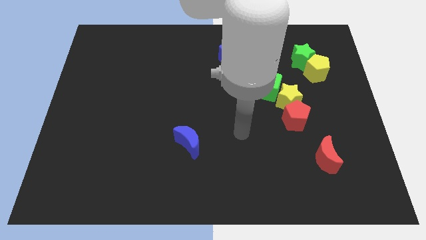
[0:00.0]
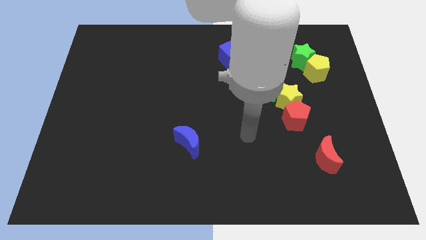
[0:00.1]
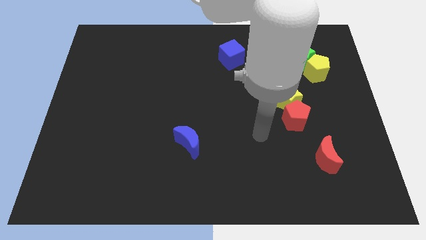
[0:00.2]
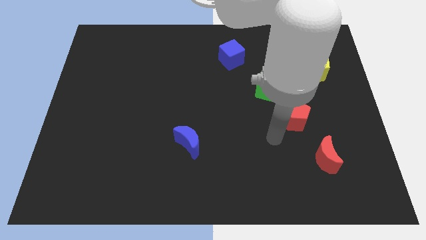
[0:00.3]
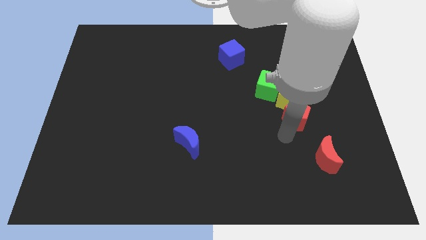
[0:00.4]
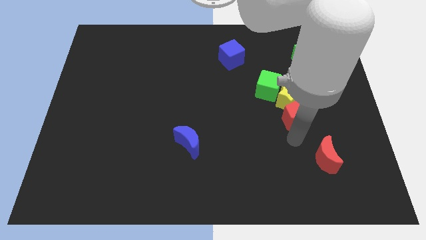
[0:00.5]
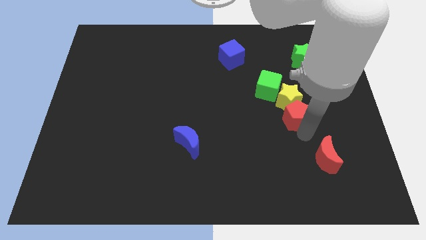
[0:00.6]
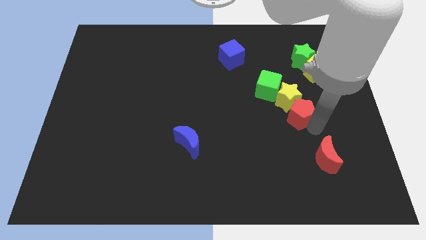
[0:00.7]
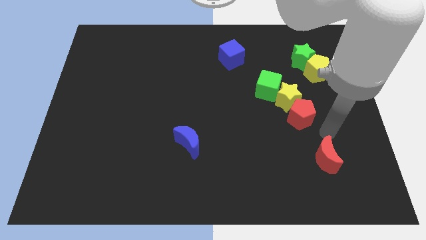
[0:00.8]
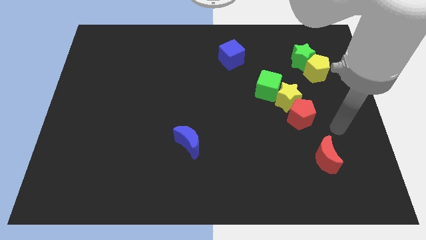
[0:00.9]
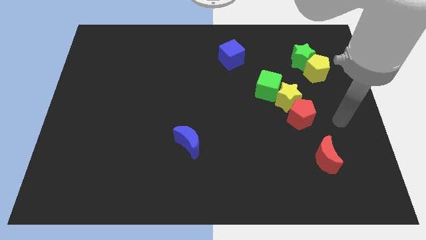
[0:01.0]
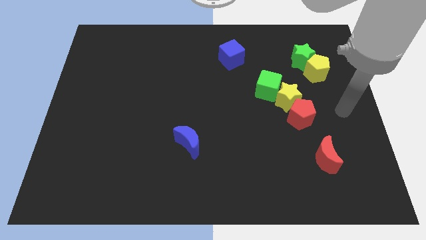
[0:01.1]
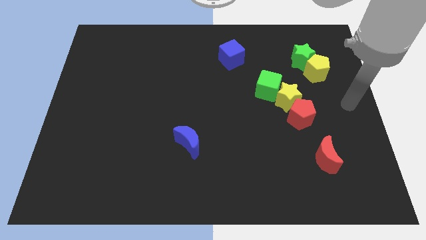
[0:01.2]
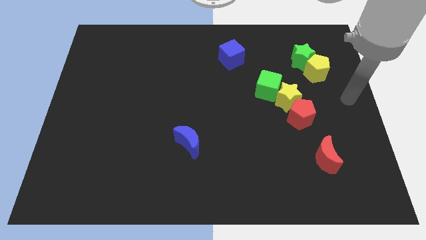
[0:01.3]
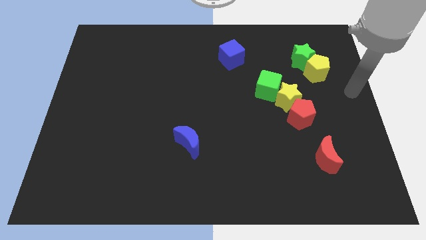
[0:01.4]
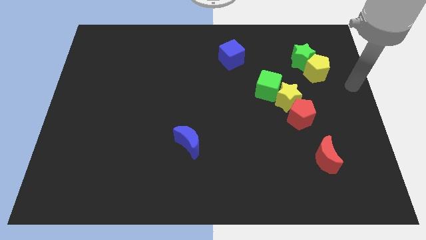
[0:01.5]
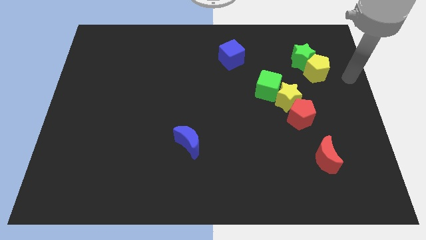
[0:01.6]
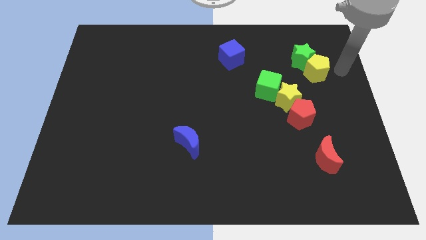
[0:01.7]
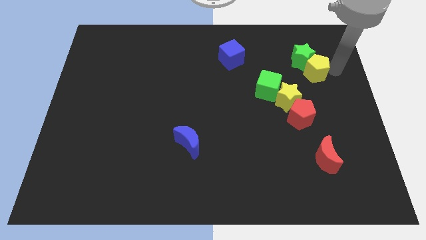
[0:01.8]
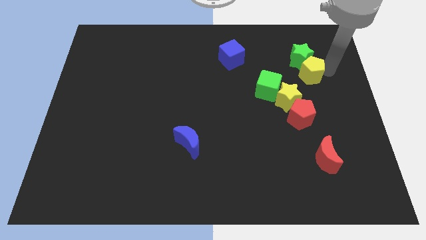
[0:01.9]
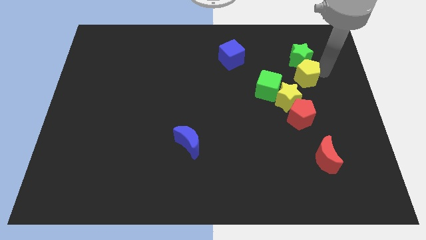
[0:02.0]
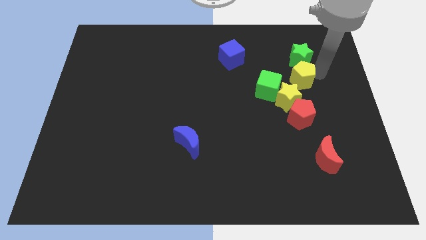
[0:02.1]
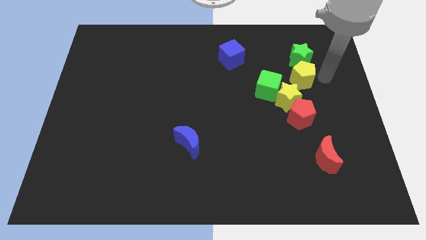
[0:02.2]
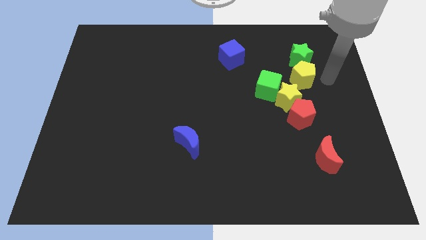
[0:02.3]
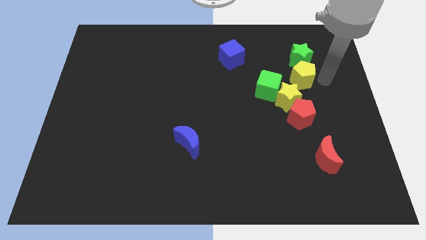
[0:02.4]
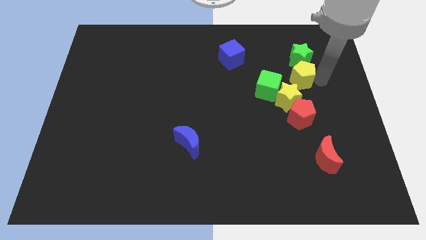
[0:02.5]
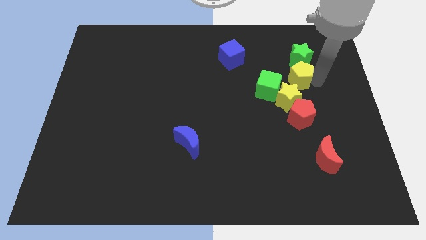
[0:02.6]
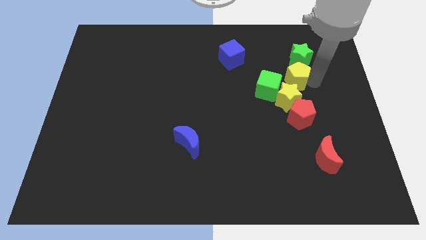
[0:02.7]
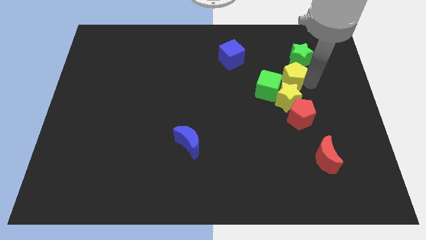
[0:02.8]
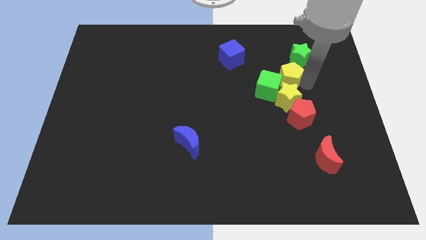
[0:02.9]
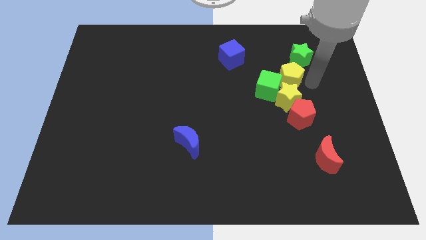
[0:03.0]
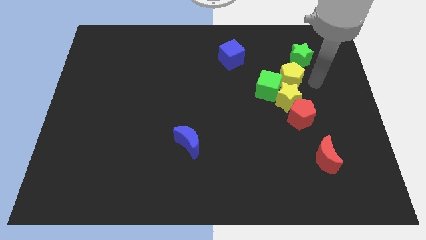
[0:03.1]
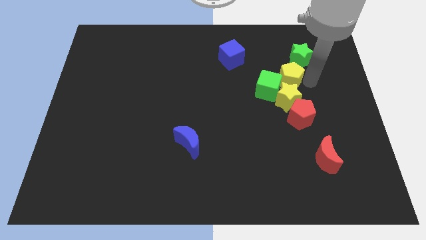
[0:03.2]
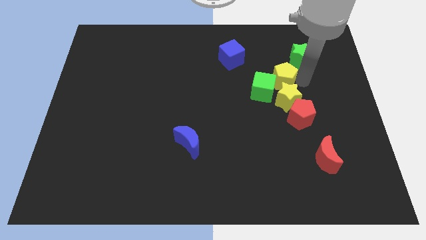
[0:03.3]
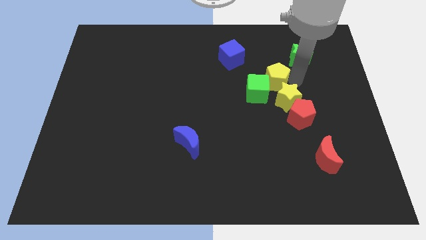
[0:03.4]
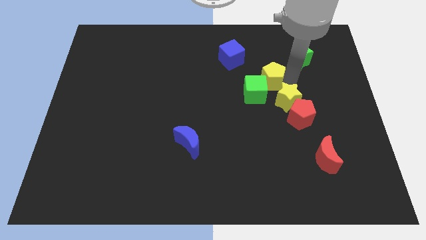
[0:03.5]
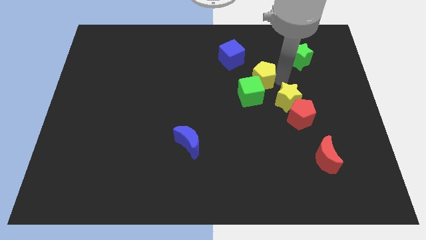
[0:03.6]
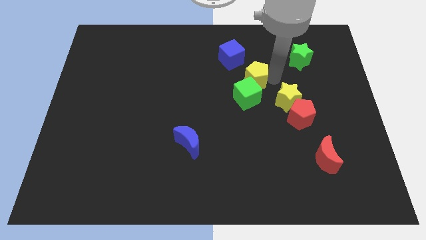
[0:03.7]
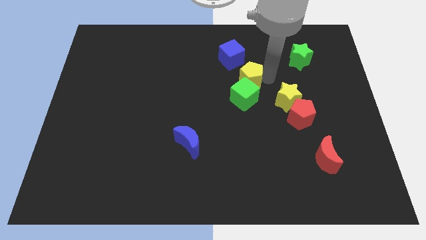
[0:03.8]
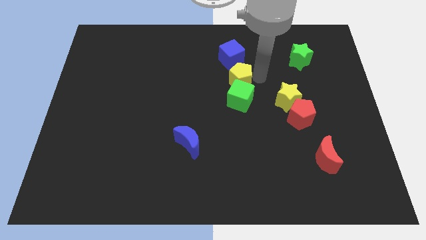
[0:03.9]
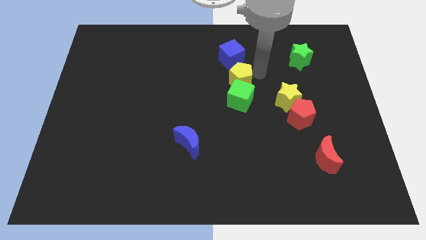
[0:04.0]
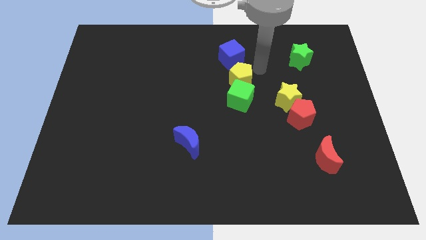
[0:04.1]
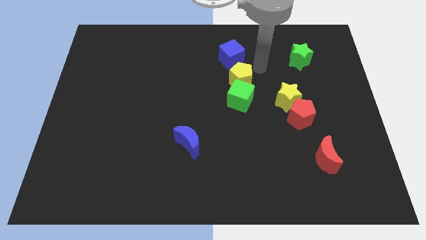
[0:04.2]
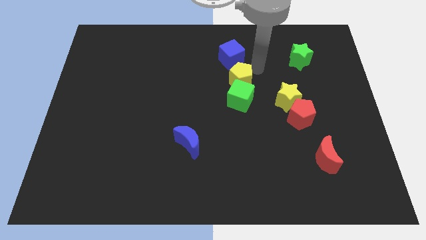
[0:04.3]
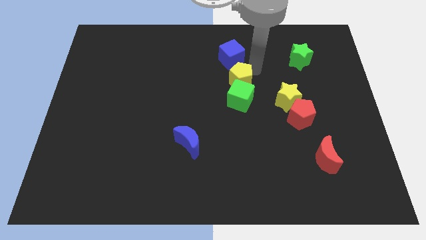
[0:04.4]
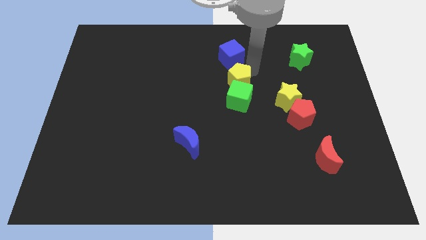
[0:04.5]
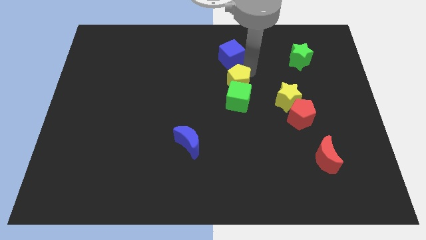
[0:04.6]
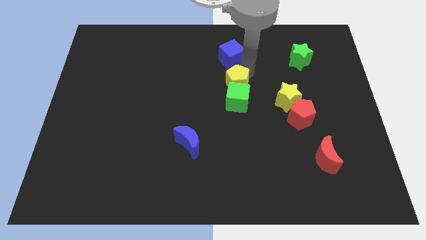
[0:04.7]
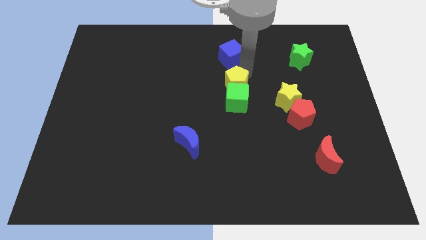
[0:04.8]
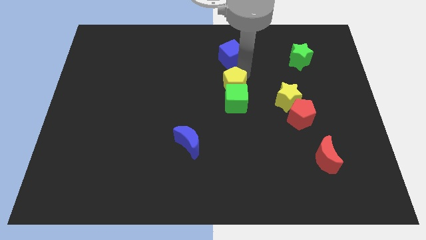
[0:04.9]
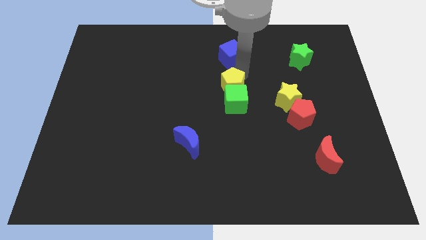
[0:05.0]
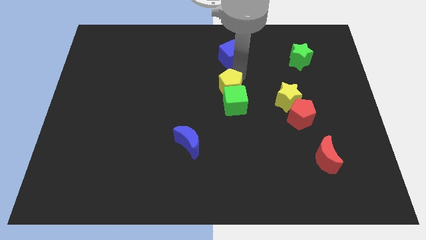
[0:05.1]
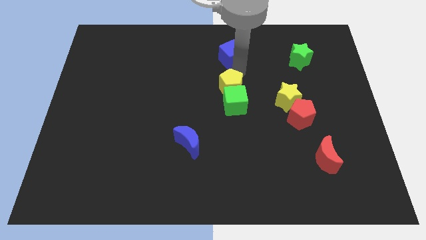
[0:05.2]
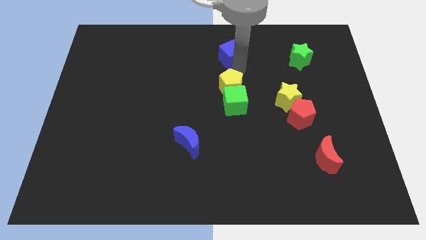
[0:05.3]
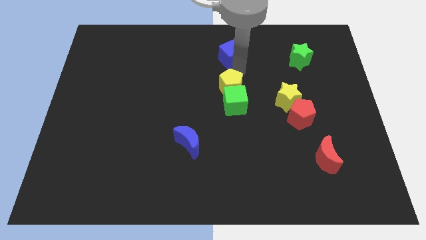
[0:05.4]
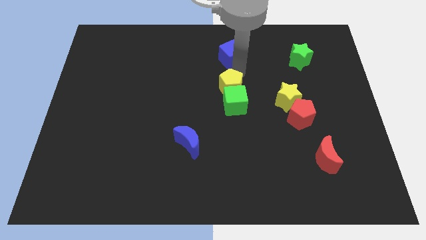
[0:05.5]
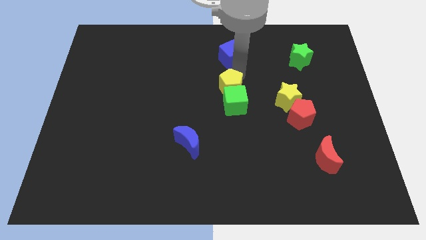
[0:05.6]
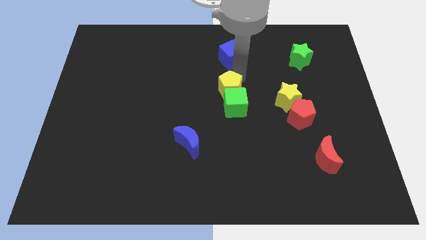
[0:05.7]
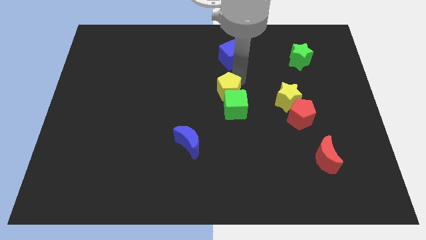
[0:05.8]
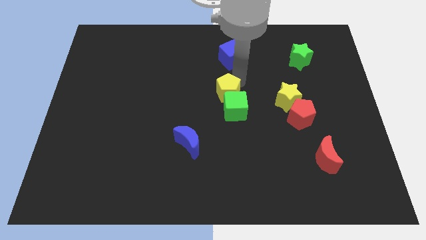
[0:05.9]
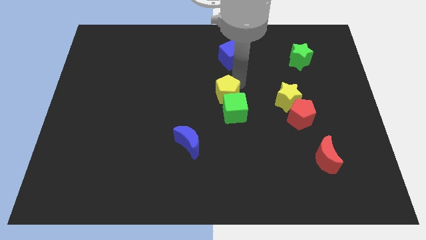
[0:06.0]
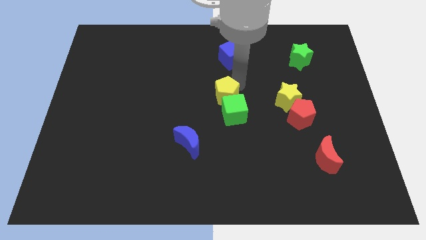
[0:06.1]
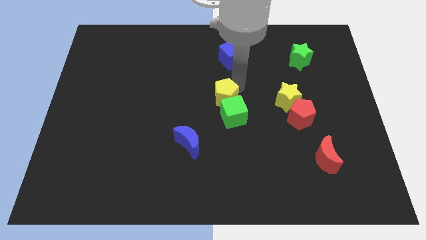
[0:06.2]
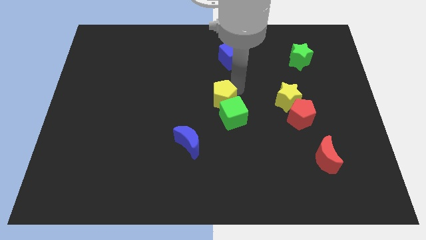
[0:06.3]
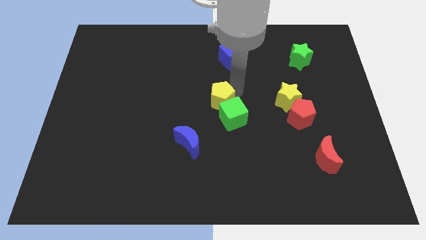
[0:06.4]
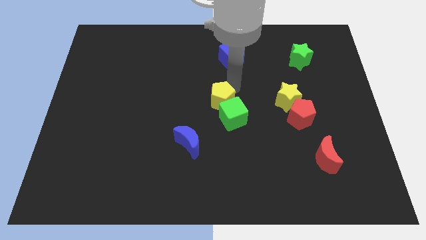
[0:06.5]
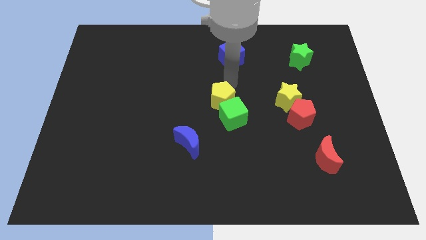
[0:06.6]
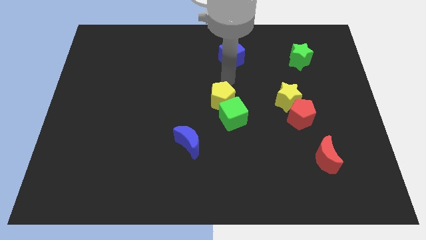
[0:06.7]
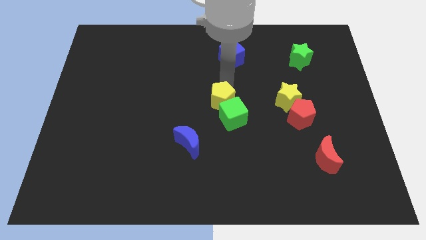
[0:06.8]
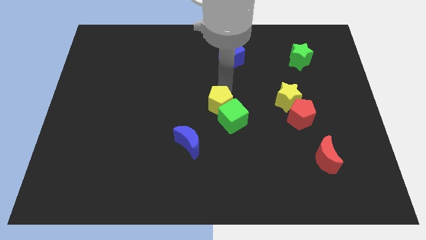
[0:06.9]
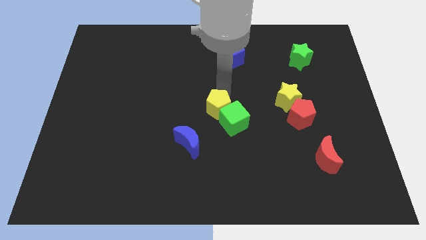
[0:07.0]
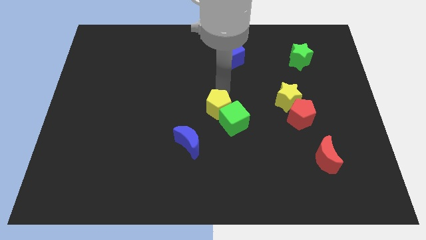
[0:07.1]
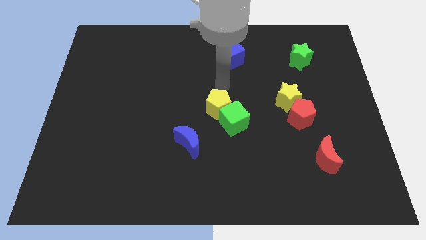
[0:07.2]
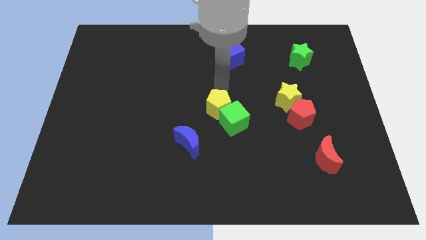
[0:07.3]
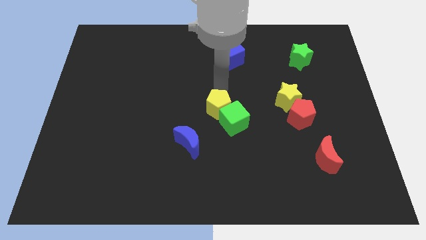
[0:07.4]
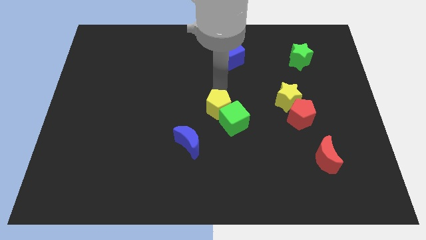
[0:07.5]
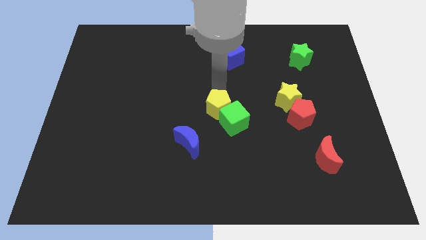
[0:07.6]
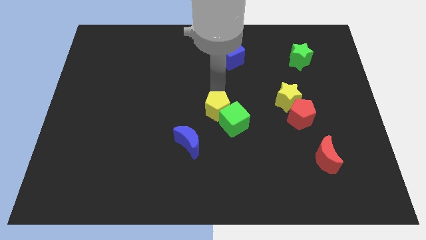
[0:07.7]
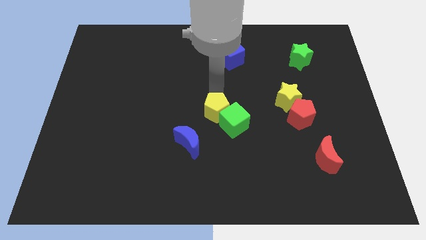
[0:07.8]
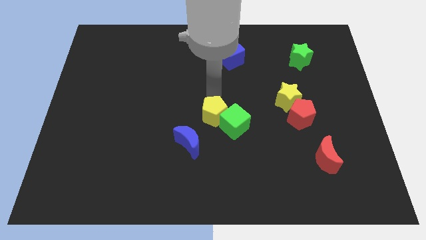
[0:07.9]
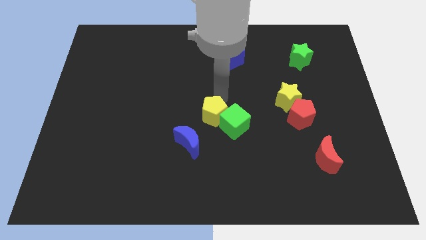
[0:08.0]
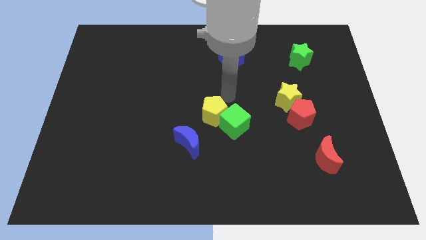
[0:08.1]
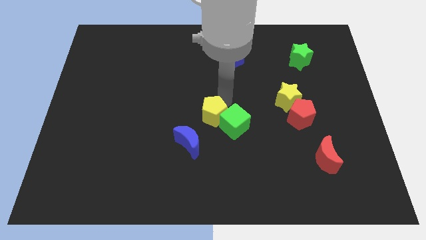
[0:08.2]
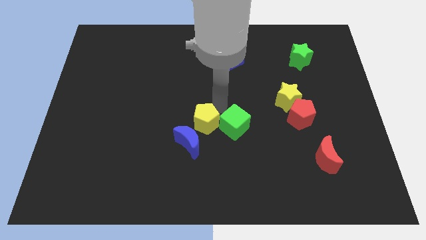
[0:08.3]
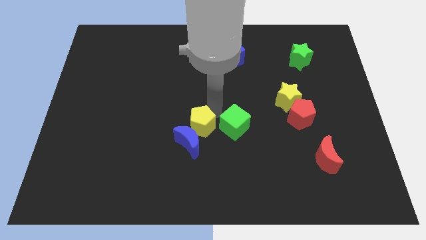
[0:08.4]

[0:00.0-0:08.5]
move the yellow pentagon to the blue moon
